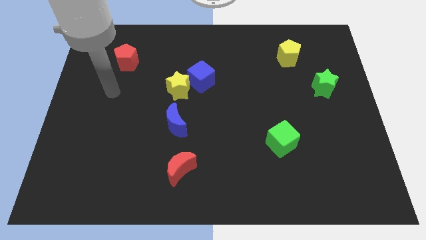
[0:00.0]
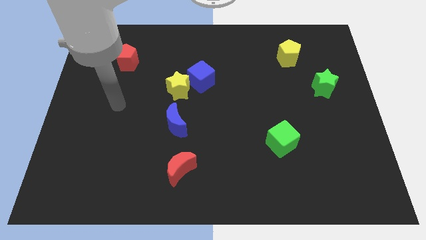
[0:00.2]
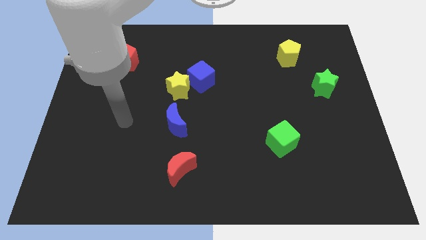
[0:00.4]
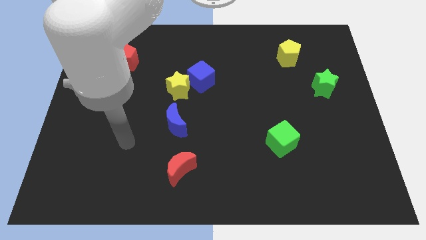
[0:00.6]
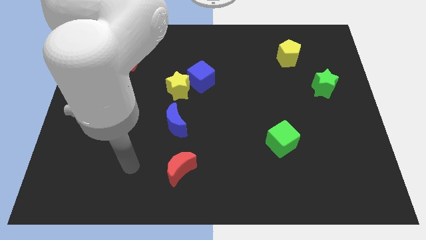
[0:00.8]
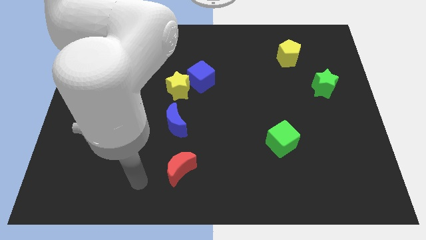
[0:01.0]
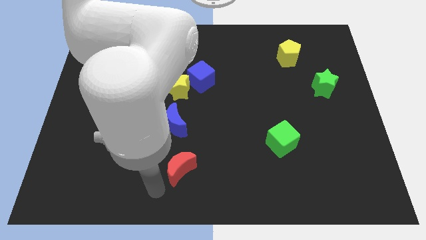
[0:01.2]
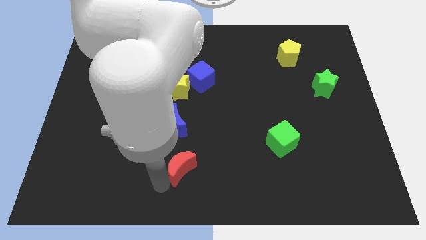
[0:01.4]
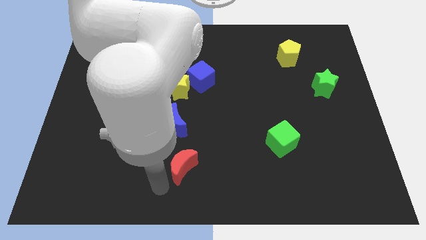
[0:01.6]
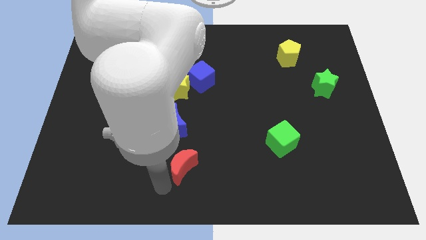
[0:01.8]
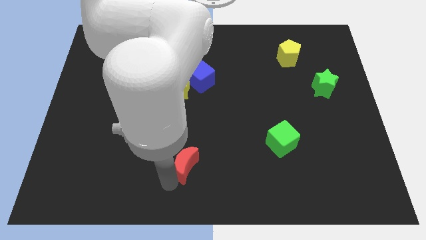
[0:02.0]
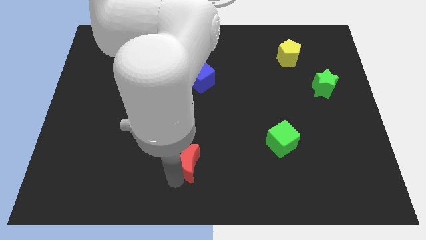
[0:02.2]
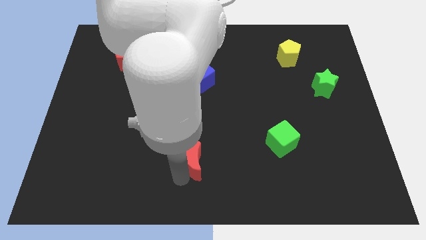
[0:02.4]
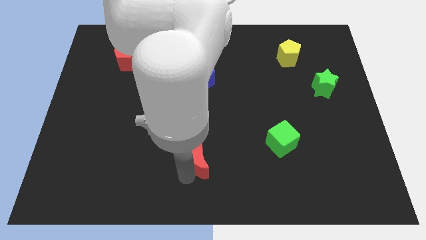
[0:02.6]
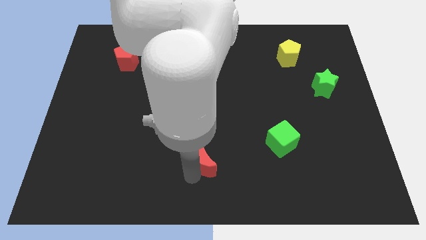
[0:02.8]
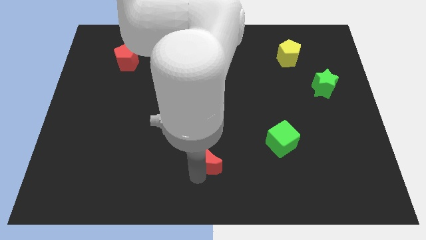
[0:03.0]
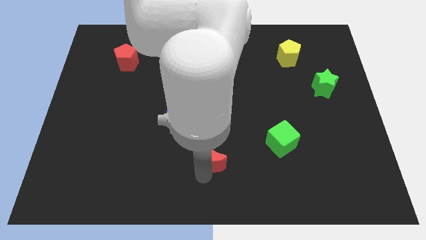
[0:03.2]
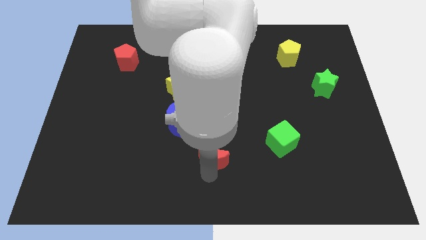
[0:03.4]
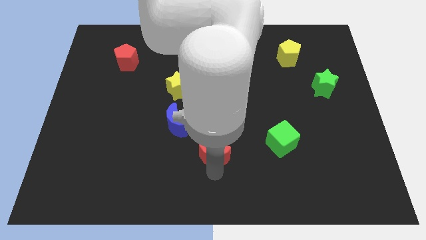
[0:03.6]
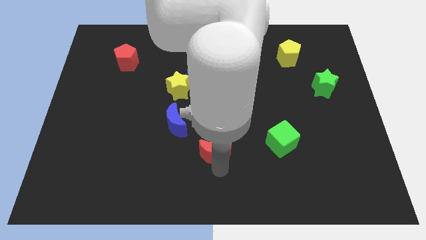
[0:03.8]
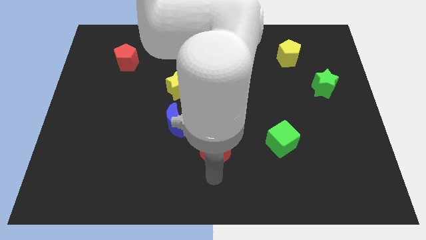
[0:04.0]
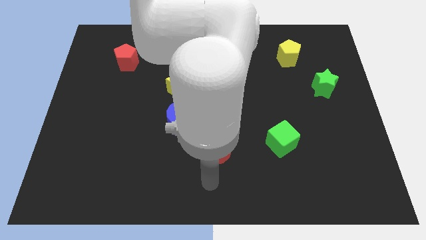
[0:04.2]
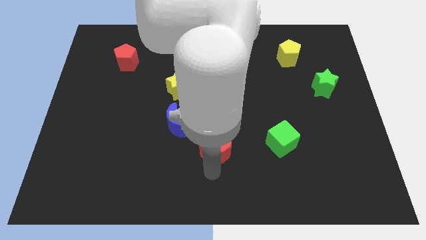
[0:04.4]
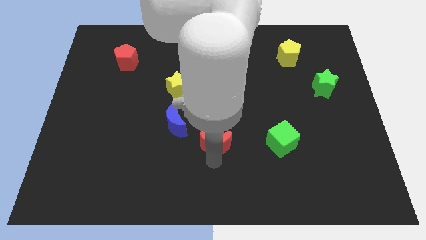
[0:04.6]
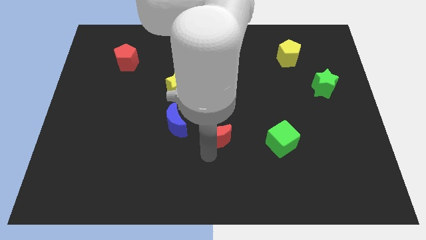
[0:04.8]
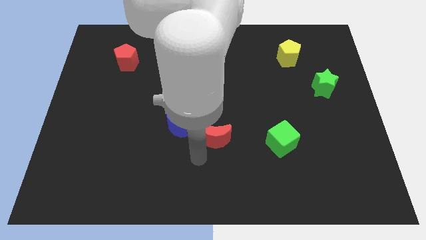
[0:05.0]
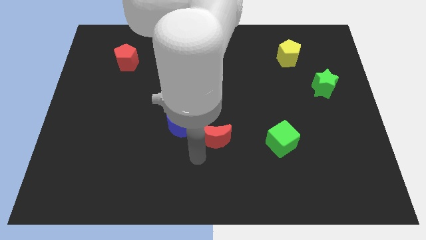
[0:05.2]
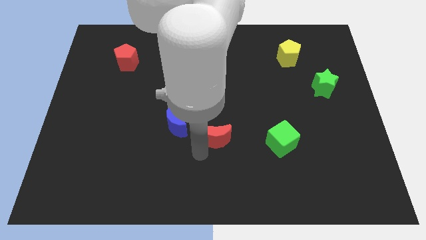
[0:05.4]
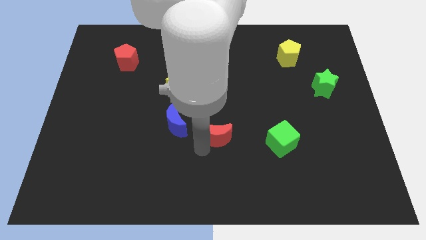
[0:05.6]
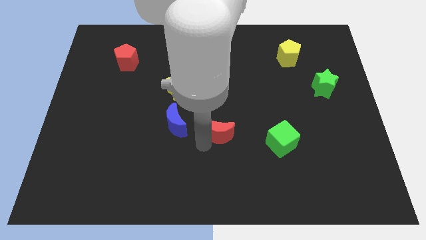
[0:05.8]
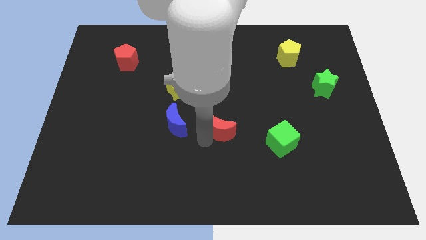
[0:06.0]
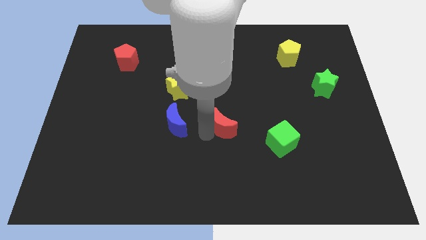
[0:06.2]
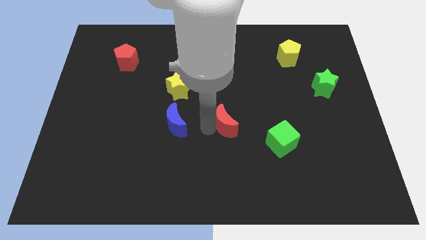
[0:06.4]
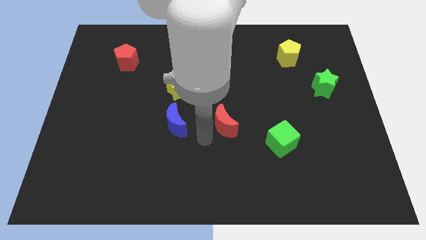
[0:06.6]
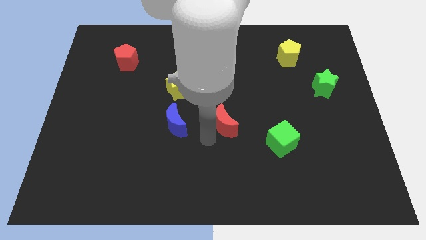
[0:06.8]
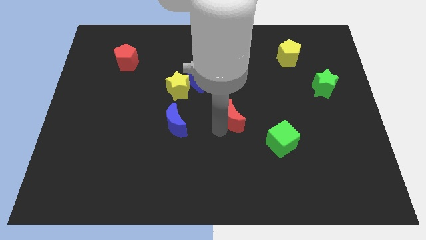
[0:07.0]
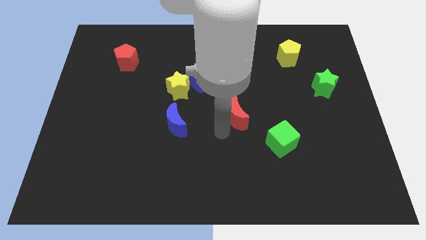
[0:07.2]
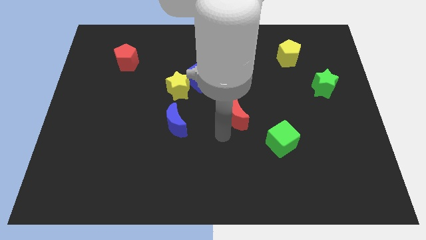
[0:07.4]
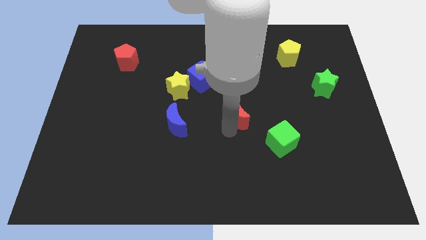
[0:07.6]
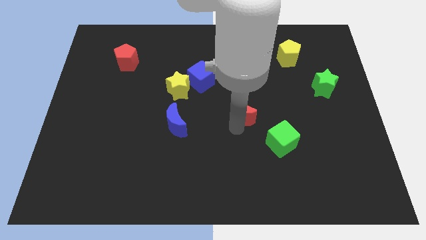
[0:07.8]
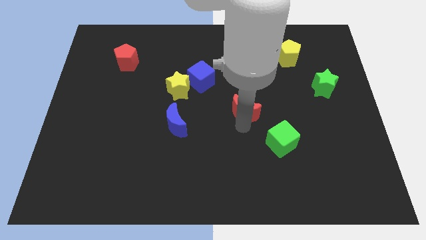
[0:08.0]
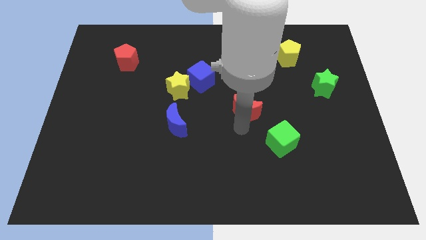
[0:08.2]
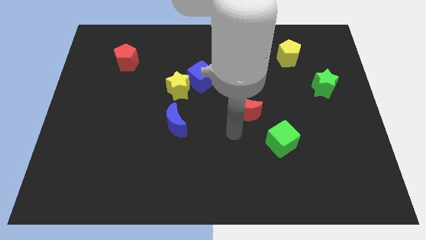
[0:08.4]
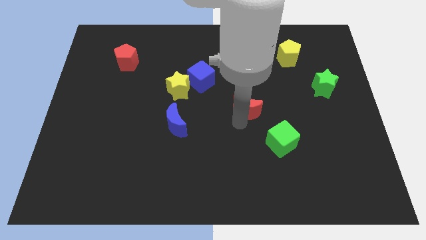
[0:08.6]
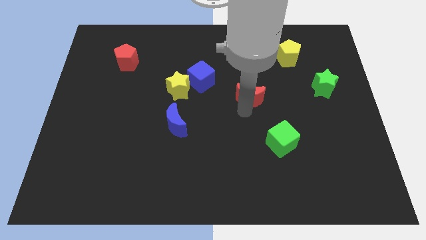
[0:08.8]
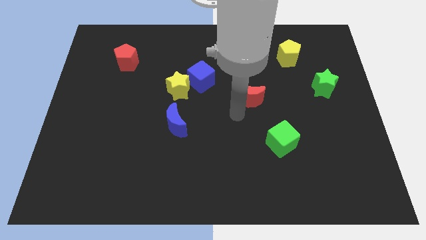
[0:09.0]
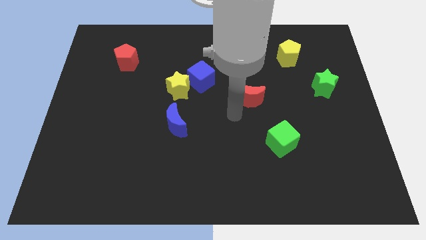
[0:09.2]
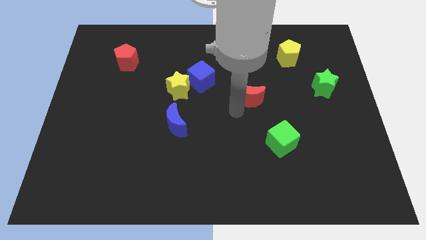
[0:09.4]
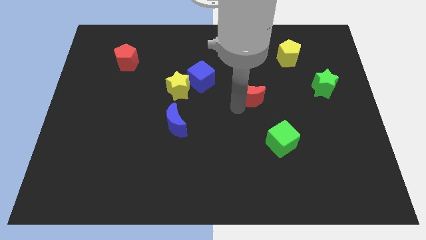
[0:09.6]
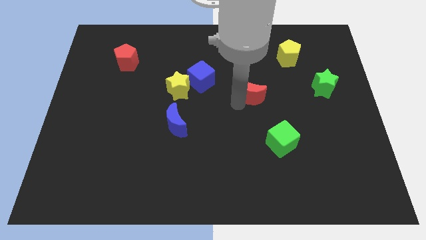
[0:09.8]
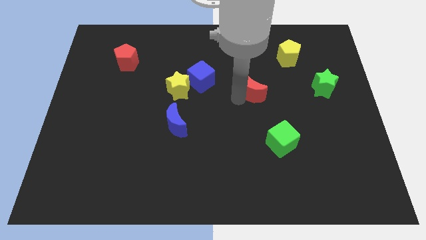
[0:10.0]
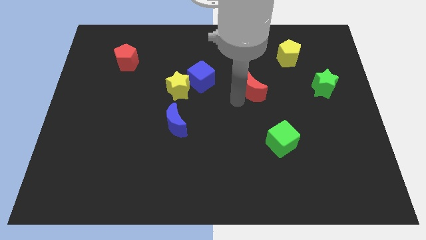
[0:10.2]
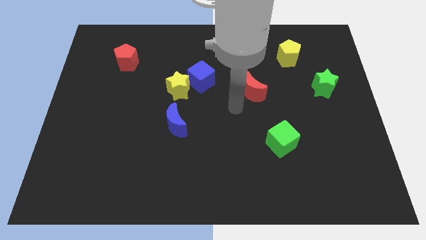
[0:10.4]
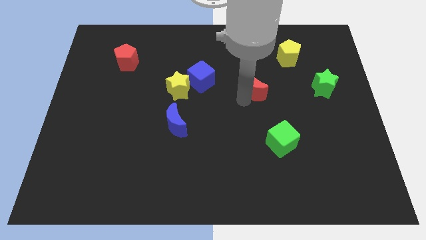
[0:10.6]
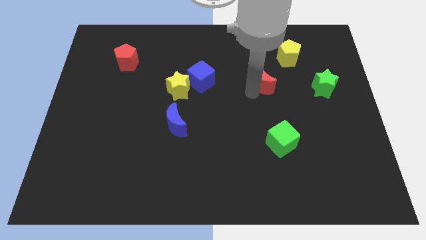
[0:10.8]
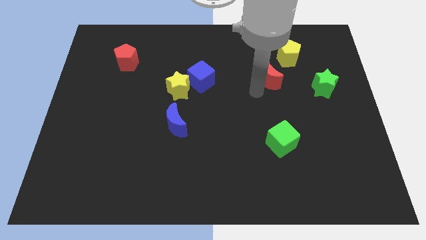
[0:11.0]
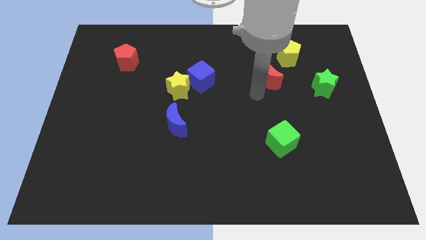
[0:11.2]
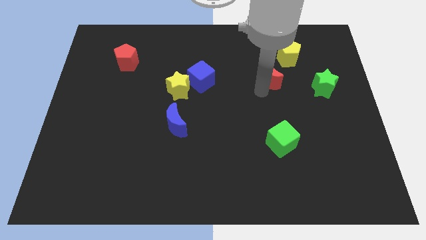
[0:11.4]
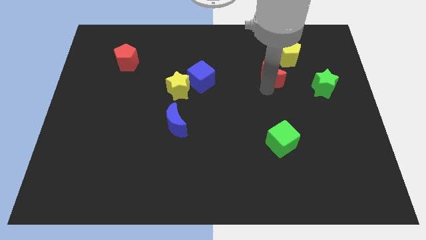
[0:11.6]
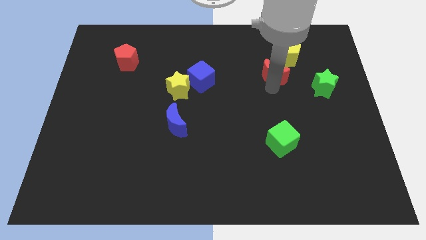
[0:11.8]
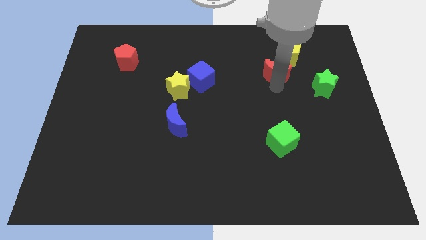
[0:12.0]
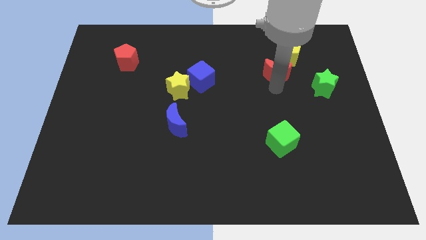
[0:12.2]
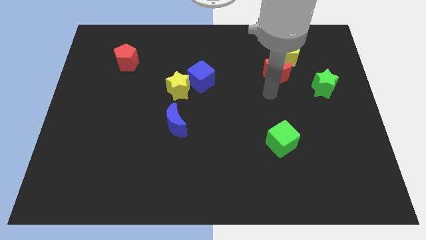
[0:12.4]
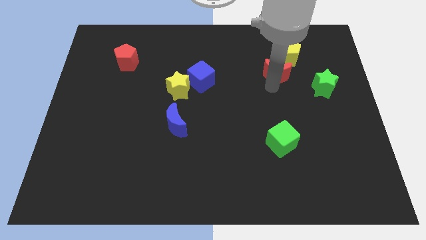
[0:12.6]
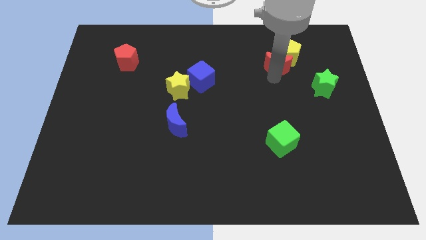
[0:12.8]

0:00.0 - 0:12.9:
put the red moon next to the yellow pentagon

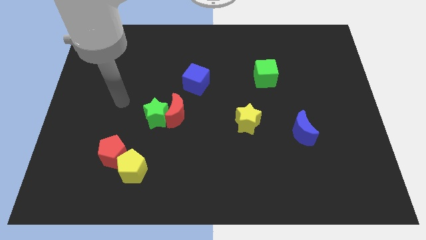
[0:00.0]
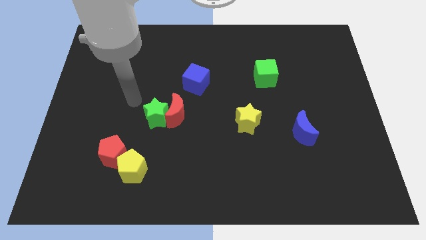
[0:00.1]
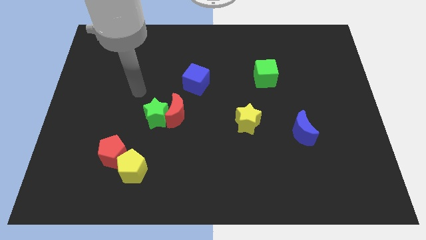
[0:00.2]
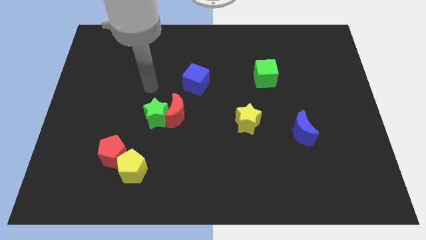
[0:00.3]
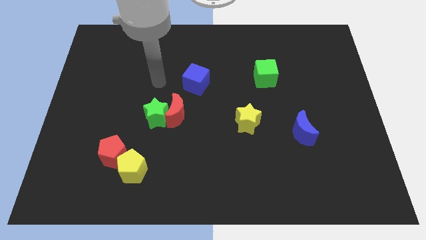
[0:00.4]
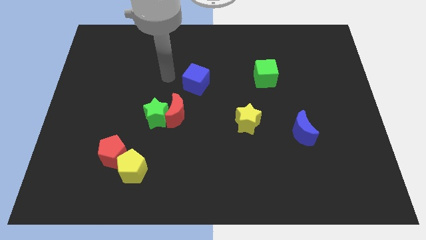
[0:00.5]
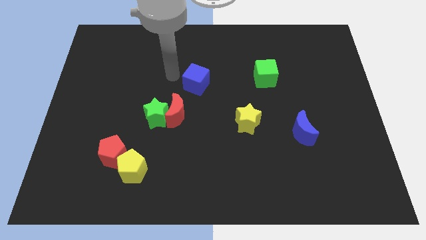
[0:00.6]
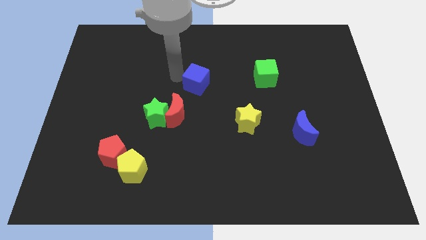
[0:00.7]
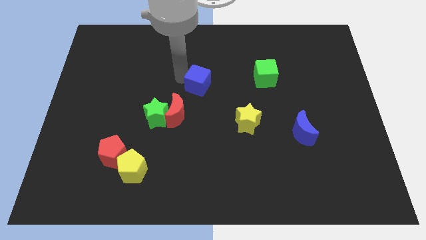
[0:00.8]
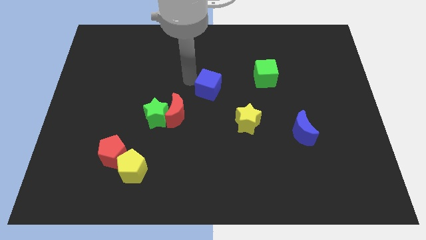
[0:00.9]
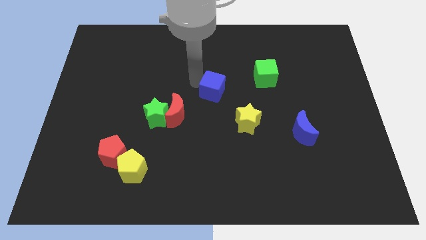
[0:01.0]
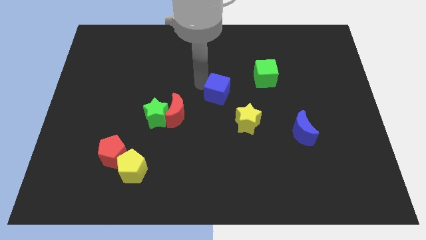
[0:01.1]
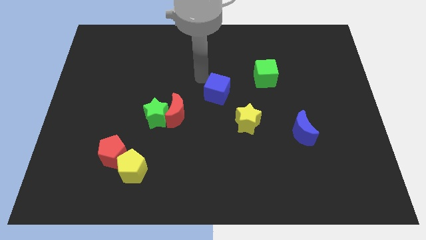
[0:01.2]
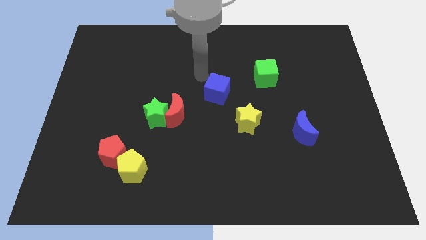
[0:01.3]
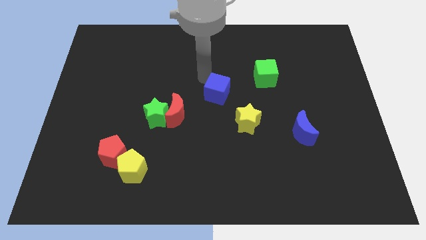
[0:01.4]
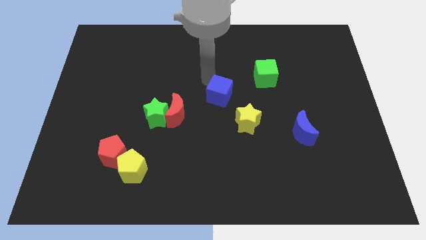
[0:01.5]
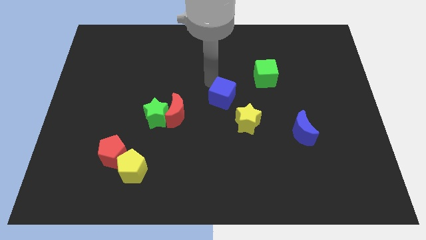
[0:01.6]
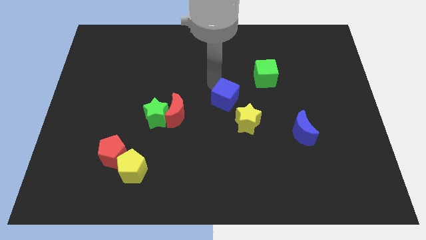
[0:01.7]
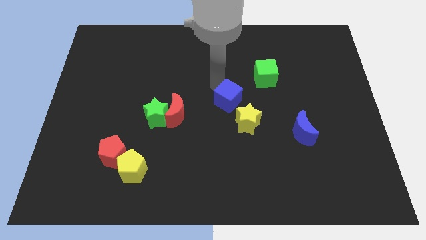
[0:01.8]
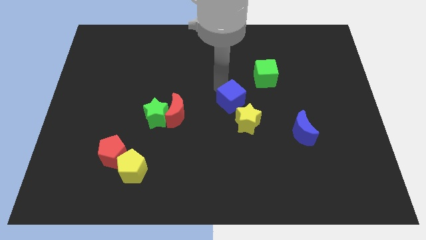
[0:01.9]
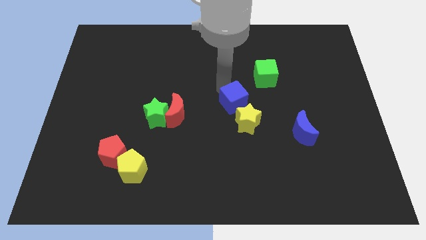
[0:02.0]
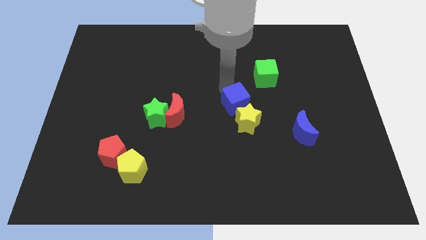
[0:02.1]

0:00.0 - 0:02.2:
slide the blue cube close to the yellow star
